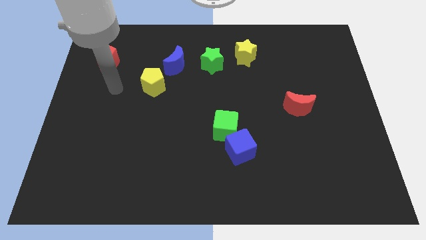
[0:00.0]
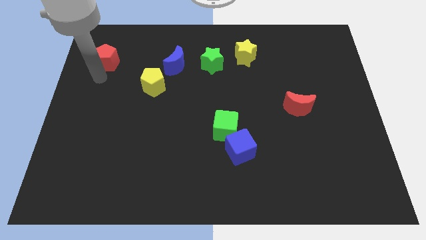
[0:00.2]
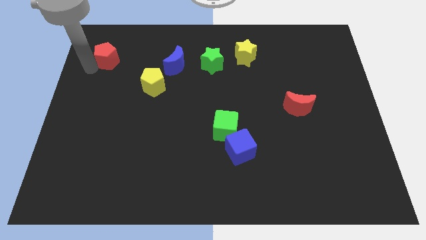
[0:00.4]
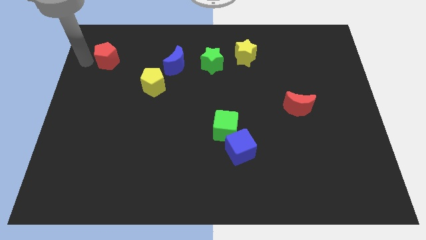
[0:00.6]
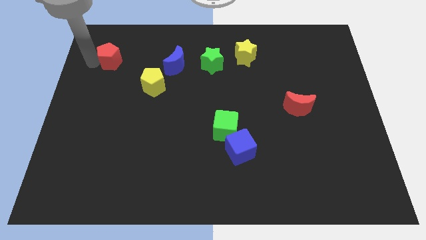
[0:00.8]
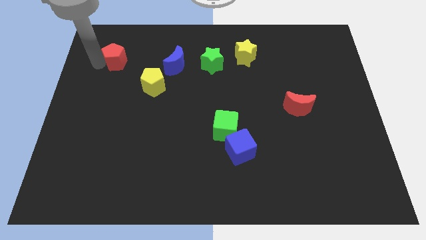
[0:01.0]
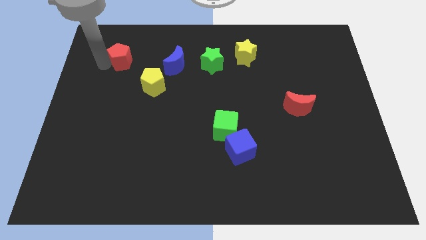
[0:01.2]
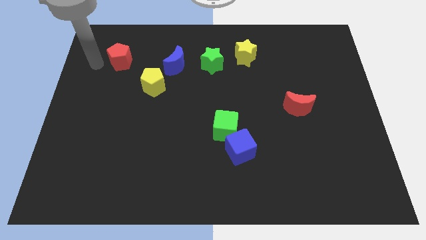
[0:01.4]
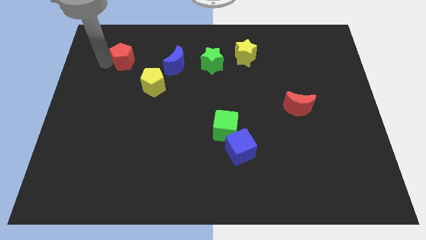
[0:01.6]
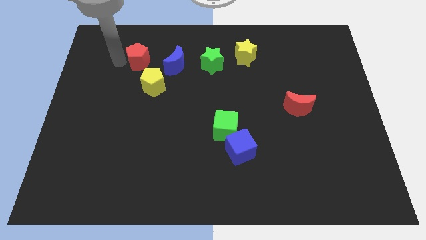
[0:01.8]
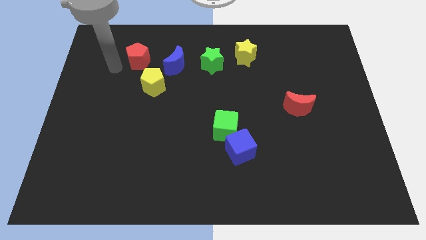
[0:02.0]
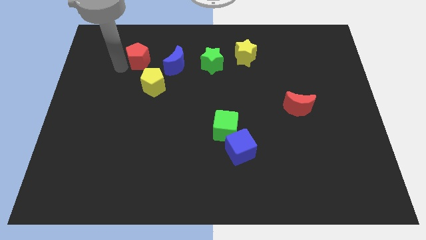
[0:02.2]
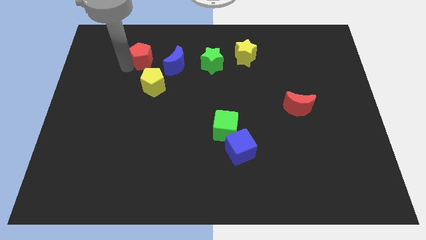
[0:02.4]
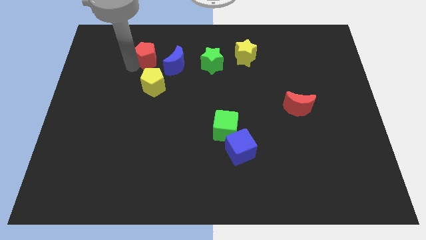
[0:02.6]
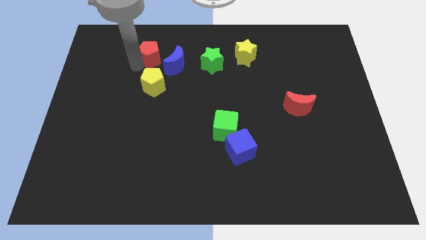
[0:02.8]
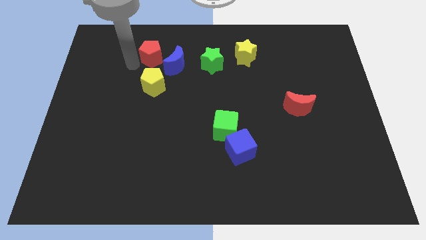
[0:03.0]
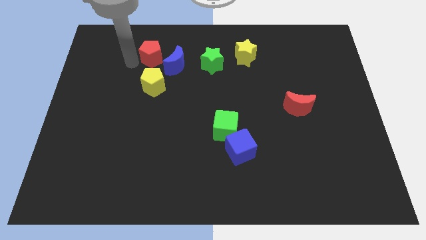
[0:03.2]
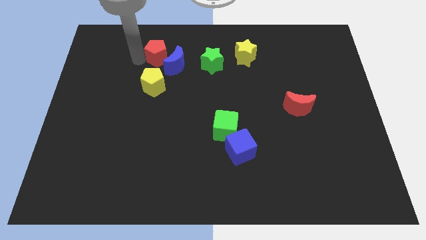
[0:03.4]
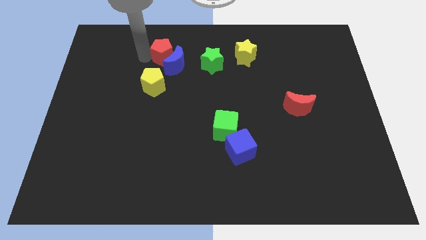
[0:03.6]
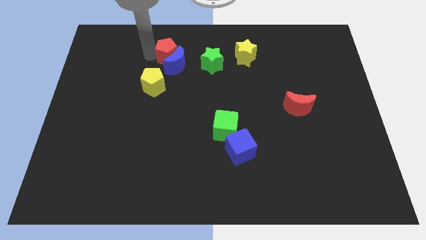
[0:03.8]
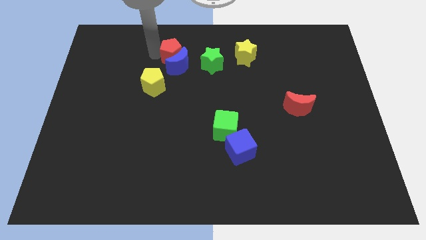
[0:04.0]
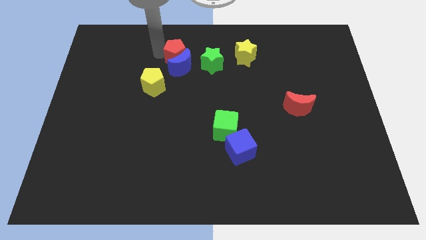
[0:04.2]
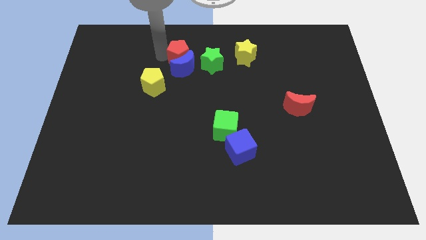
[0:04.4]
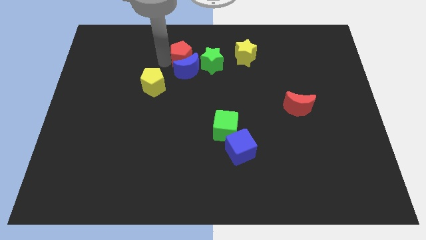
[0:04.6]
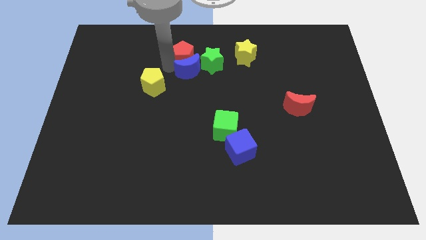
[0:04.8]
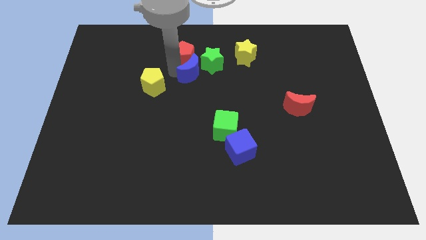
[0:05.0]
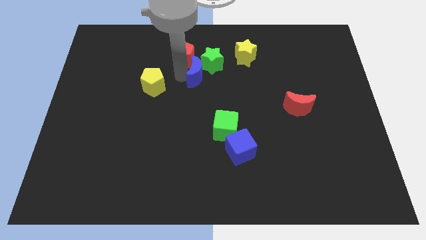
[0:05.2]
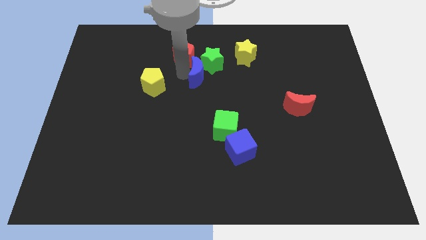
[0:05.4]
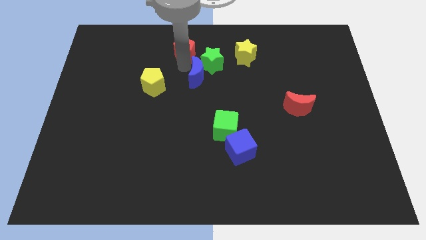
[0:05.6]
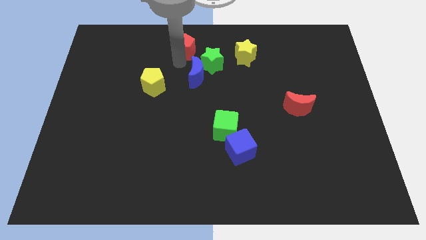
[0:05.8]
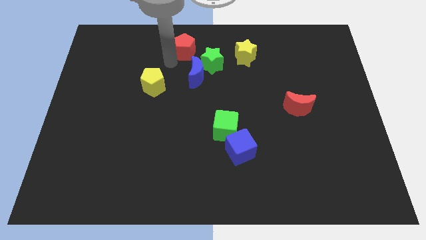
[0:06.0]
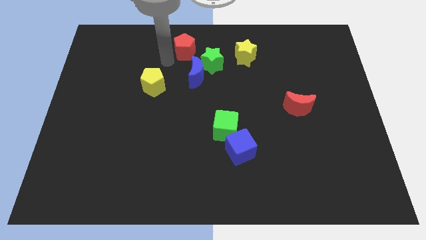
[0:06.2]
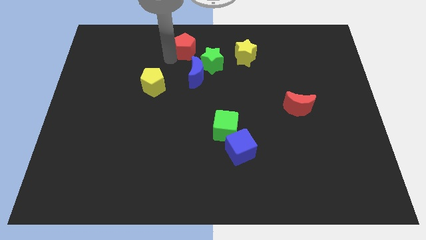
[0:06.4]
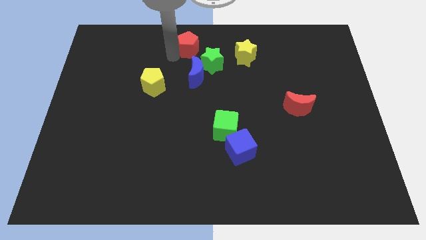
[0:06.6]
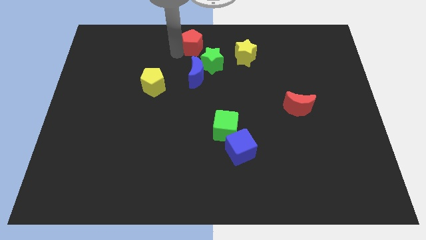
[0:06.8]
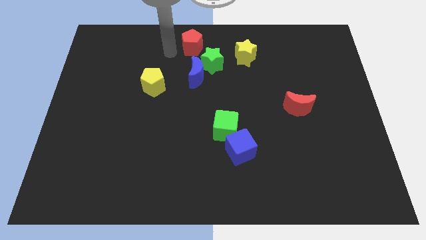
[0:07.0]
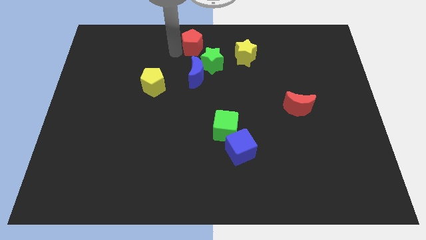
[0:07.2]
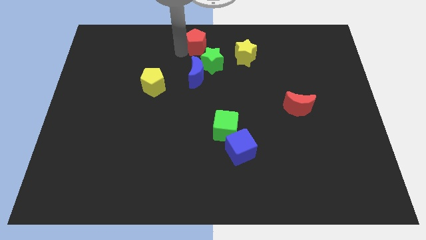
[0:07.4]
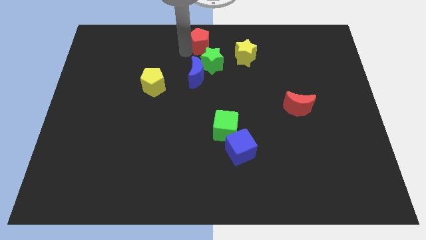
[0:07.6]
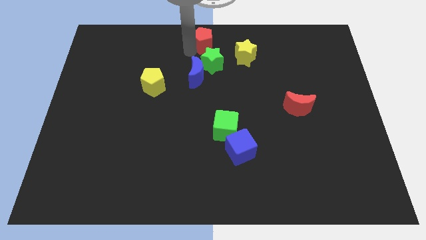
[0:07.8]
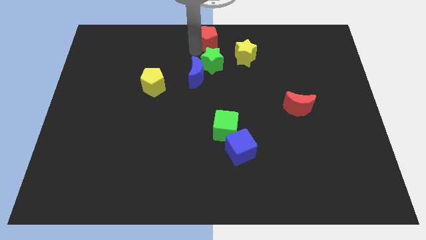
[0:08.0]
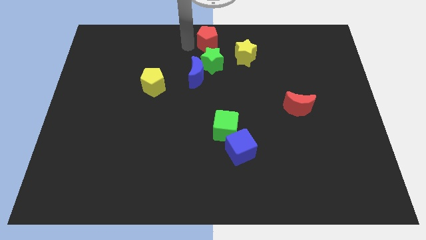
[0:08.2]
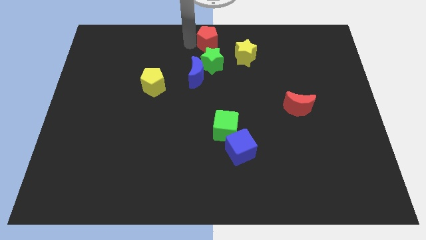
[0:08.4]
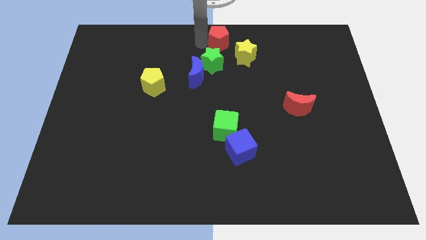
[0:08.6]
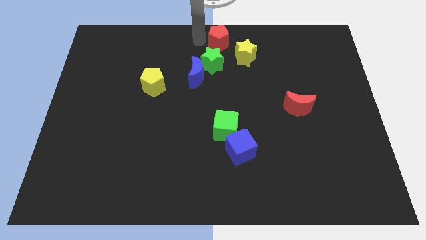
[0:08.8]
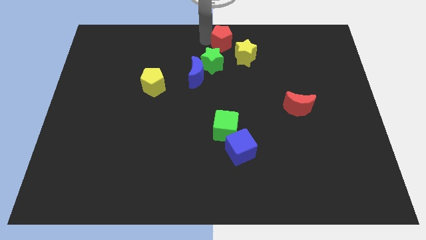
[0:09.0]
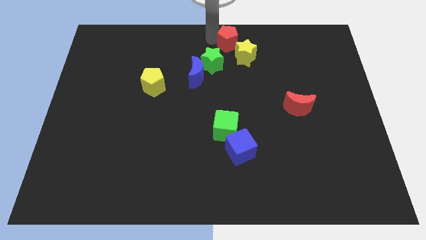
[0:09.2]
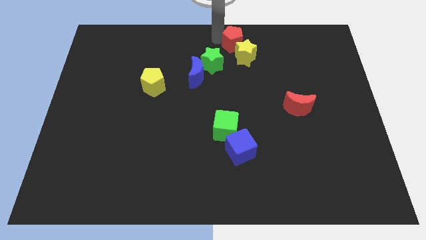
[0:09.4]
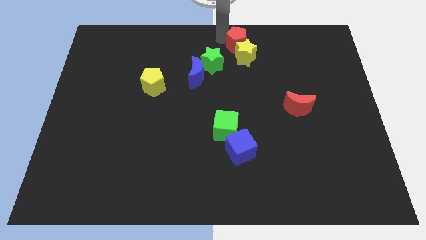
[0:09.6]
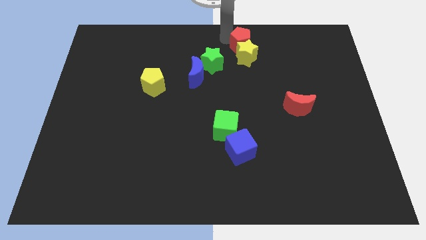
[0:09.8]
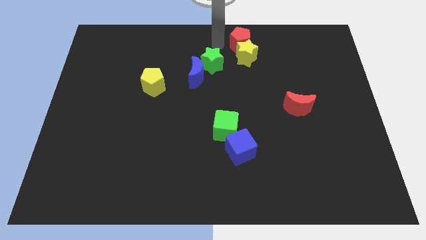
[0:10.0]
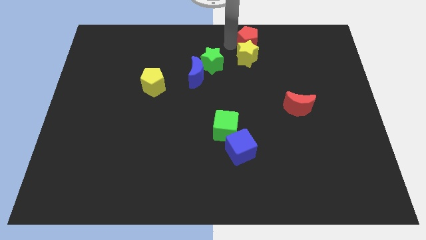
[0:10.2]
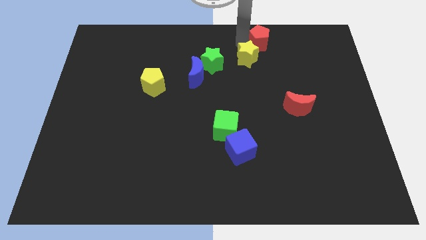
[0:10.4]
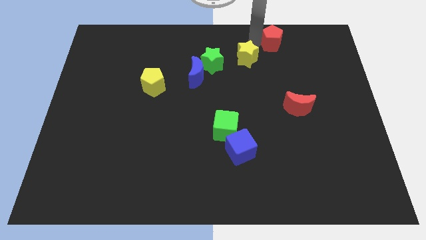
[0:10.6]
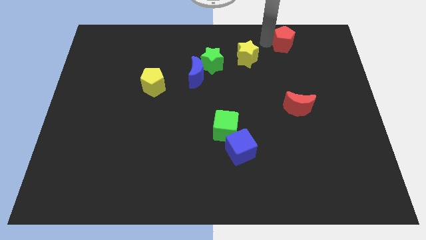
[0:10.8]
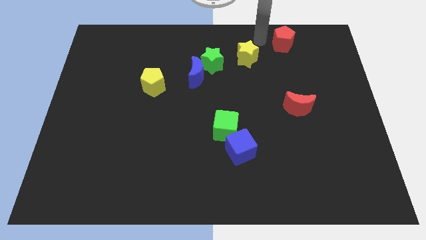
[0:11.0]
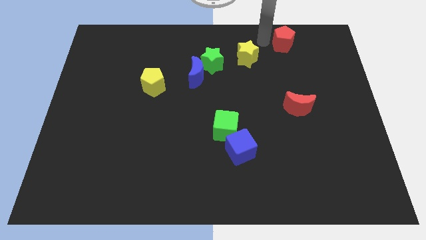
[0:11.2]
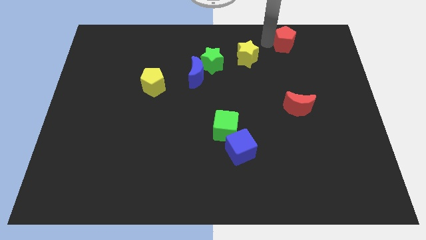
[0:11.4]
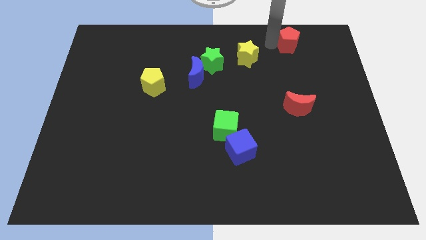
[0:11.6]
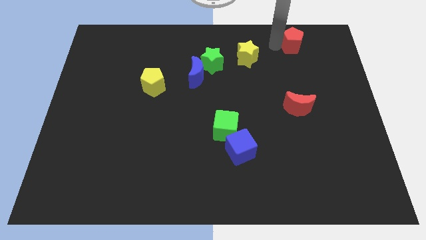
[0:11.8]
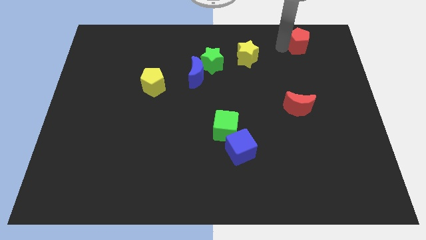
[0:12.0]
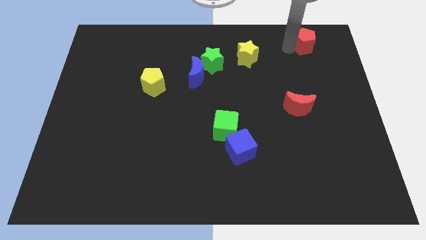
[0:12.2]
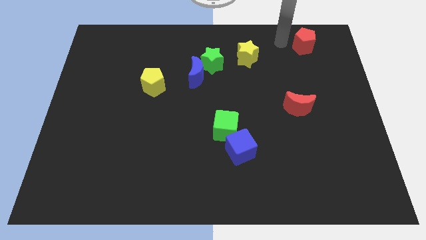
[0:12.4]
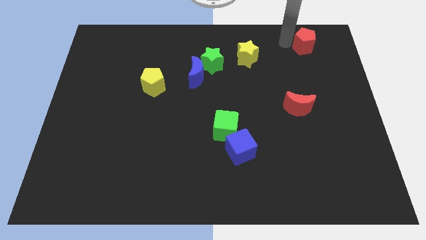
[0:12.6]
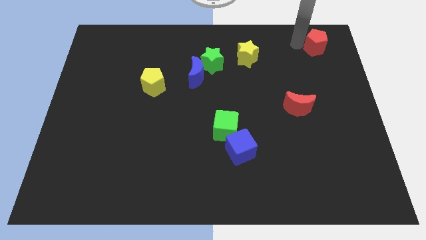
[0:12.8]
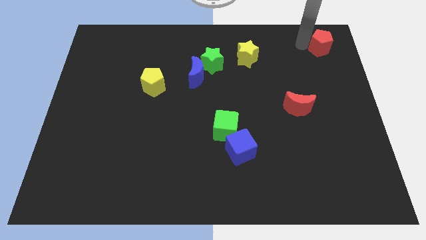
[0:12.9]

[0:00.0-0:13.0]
move the red pentagon to the top right corner
